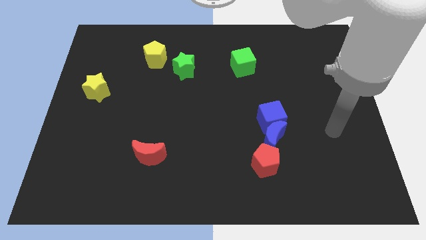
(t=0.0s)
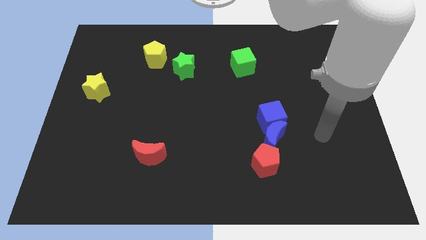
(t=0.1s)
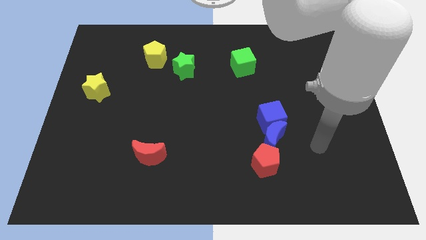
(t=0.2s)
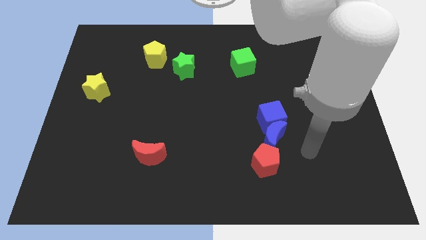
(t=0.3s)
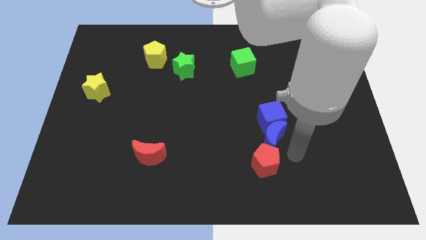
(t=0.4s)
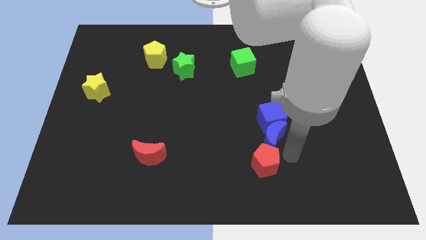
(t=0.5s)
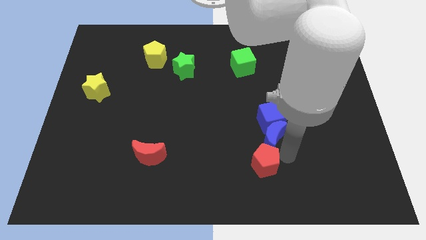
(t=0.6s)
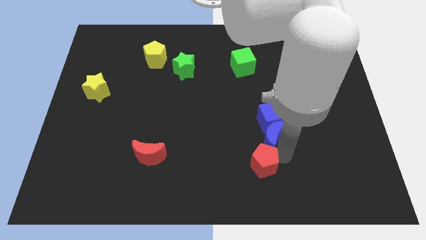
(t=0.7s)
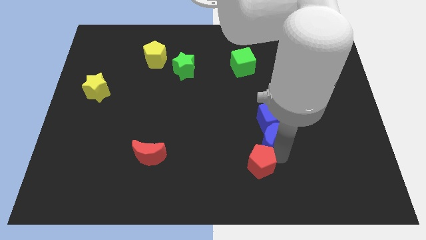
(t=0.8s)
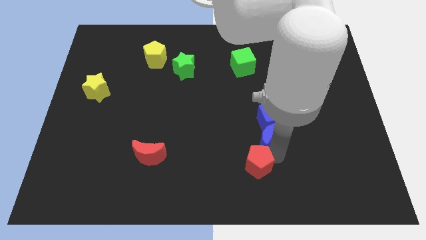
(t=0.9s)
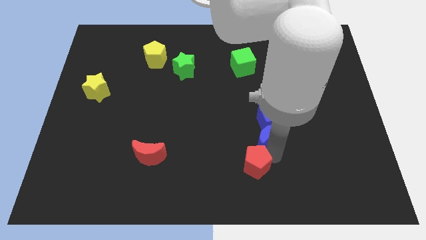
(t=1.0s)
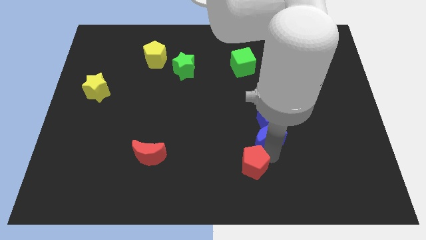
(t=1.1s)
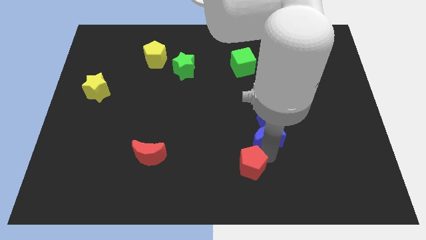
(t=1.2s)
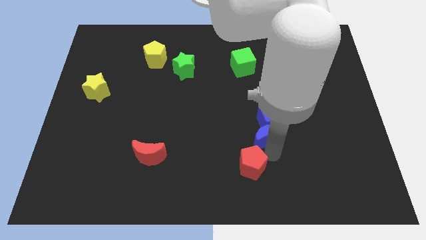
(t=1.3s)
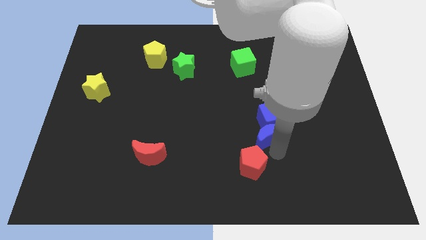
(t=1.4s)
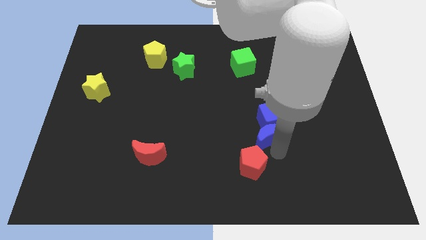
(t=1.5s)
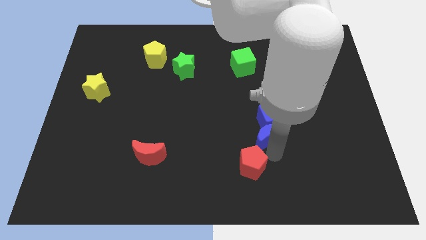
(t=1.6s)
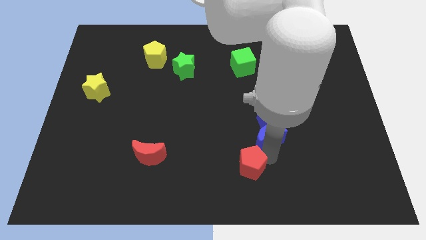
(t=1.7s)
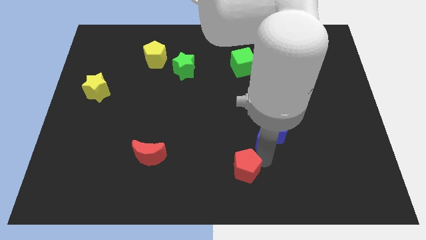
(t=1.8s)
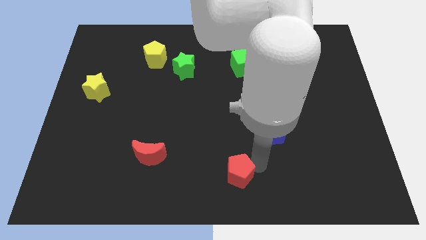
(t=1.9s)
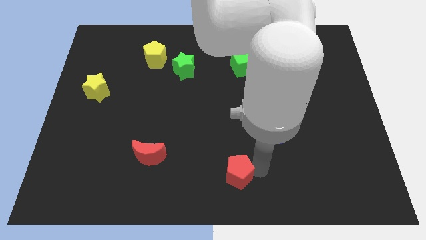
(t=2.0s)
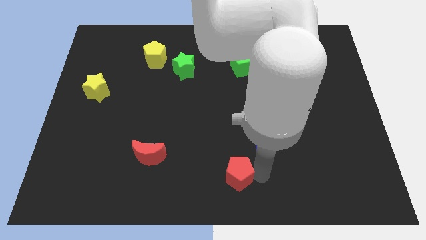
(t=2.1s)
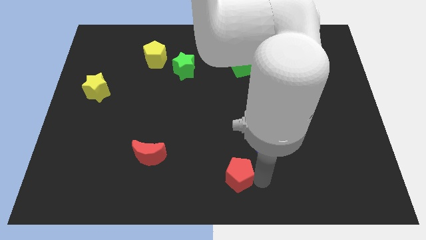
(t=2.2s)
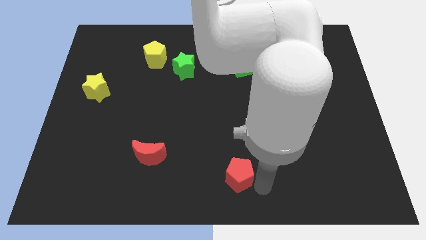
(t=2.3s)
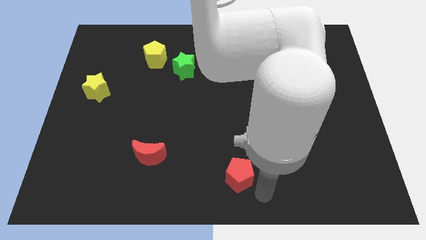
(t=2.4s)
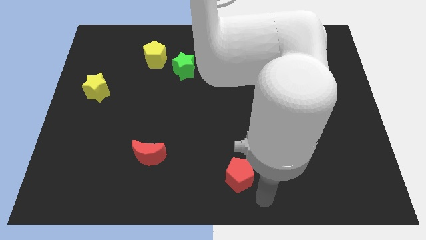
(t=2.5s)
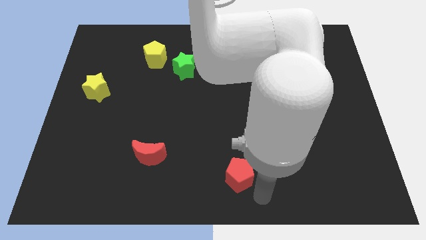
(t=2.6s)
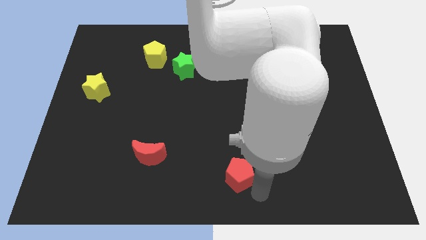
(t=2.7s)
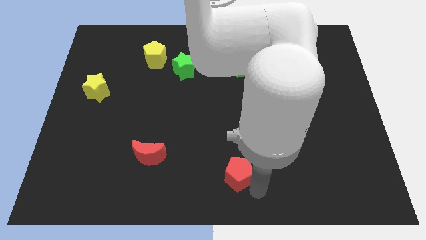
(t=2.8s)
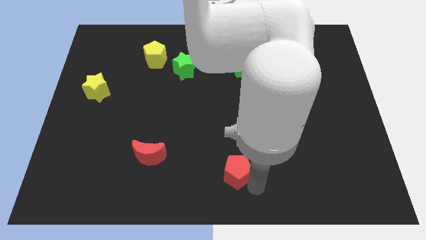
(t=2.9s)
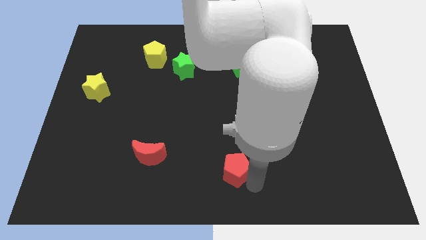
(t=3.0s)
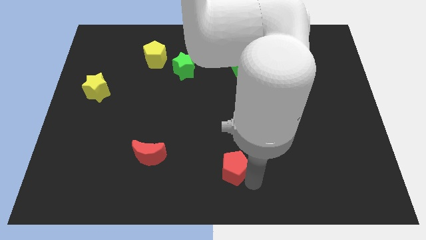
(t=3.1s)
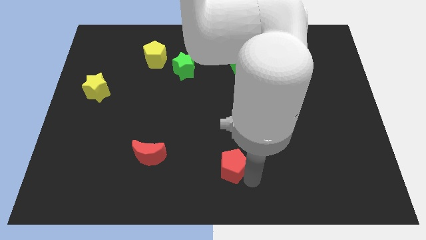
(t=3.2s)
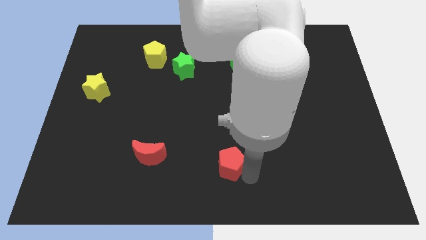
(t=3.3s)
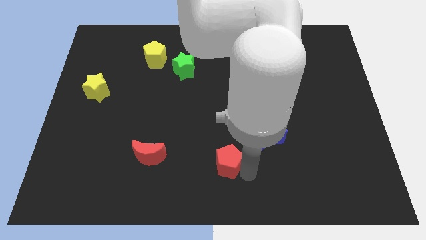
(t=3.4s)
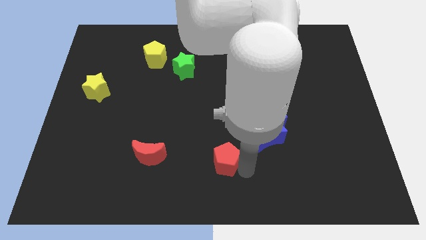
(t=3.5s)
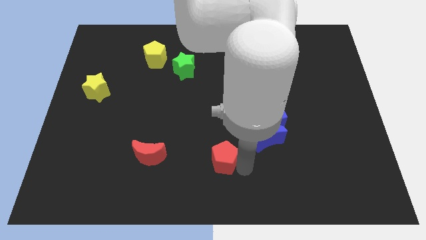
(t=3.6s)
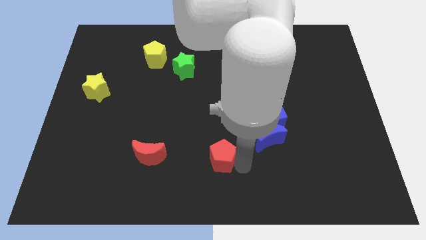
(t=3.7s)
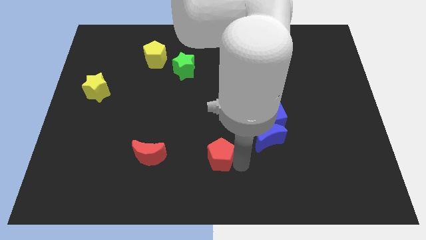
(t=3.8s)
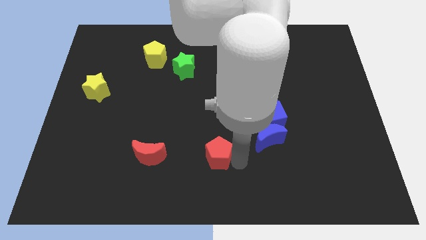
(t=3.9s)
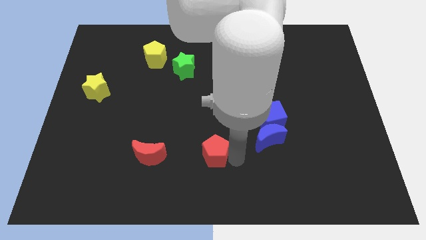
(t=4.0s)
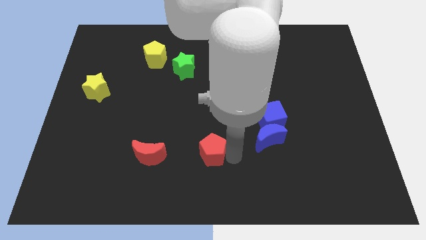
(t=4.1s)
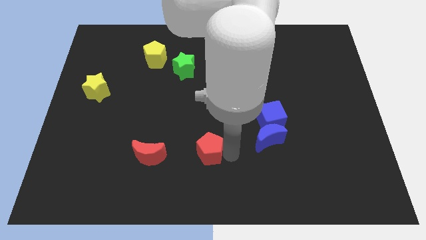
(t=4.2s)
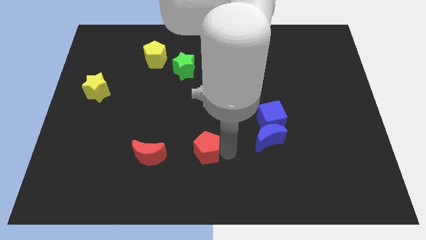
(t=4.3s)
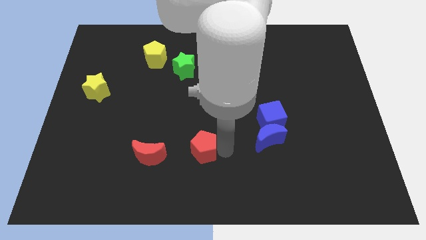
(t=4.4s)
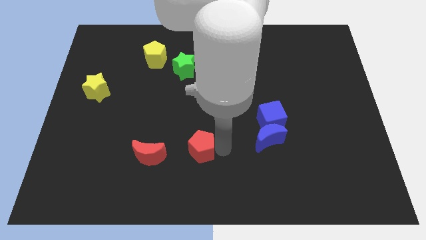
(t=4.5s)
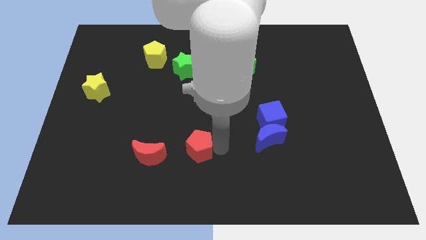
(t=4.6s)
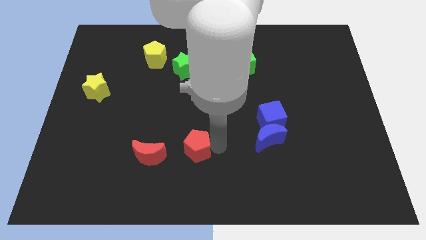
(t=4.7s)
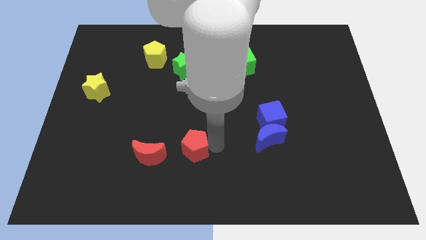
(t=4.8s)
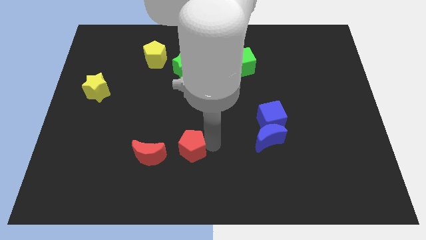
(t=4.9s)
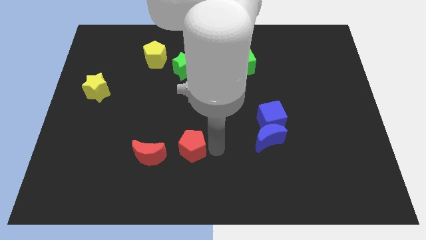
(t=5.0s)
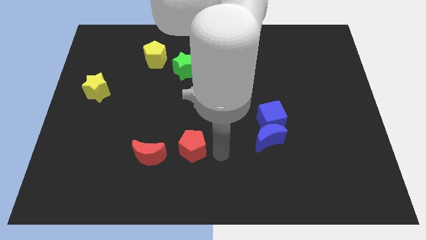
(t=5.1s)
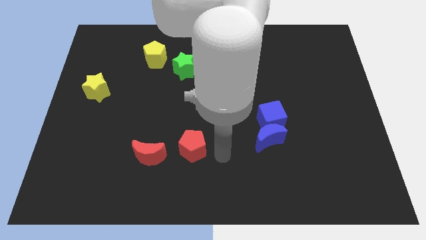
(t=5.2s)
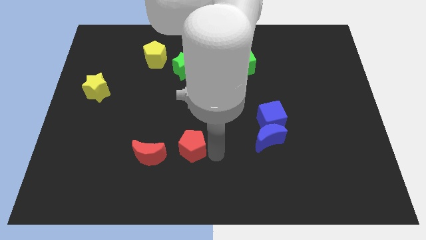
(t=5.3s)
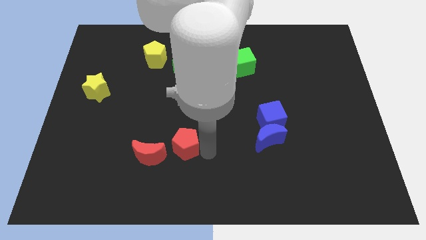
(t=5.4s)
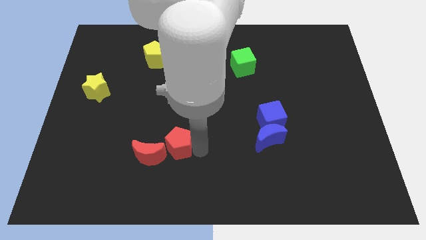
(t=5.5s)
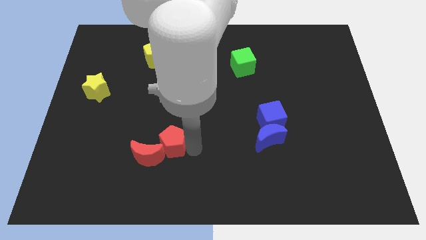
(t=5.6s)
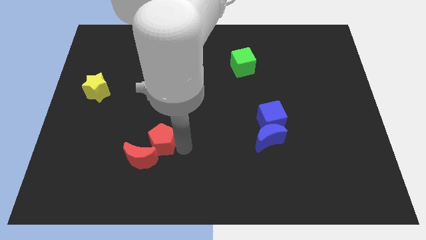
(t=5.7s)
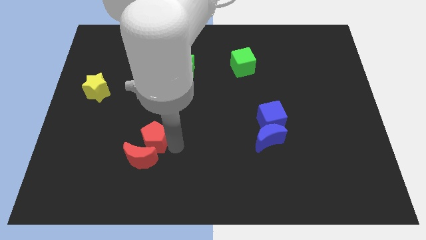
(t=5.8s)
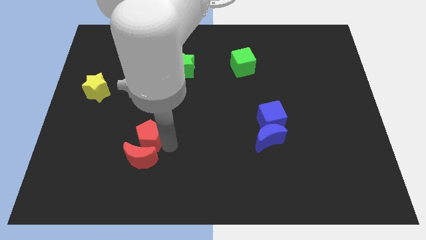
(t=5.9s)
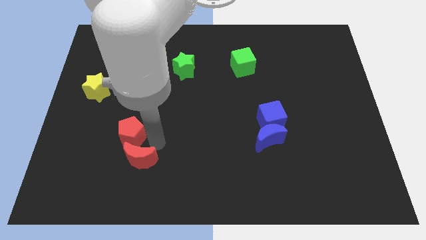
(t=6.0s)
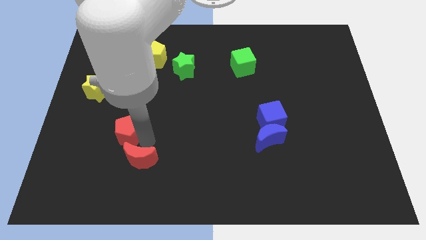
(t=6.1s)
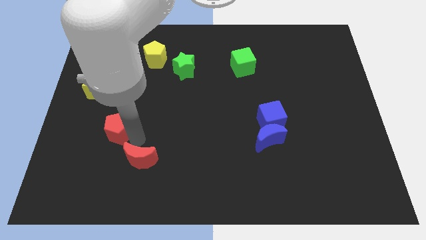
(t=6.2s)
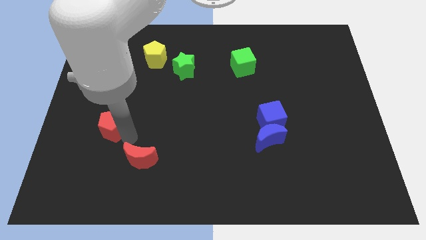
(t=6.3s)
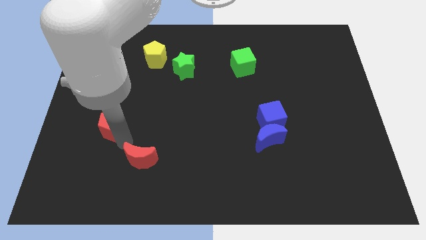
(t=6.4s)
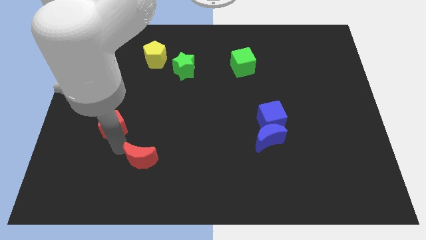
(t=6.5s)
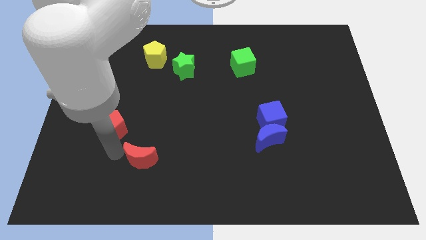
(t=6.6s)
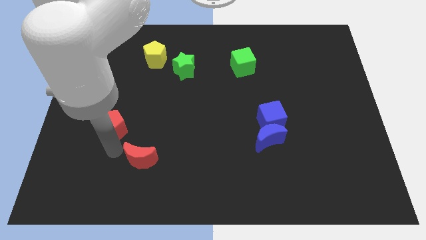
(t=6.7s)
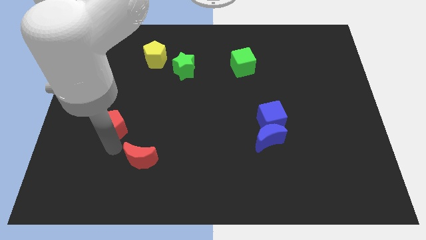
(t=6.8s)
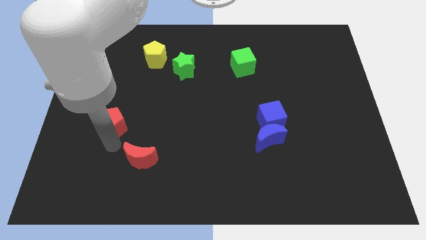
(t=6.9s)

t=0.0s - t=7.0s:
slide the red pentagon to the bottom right side of the yellow star

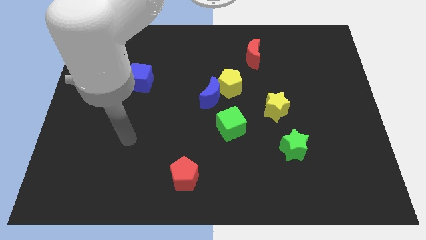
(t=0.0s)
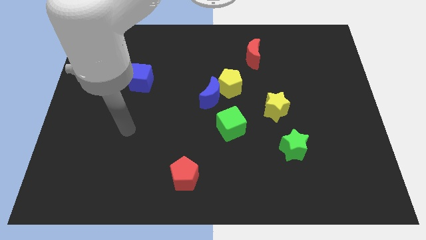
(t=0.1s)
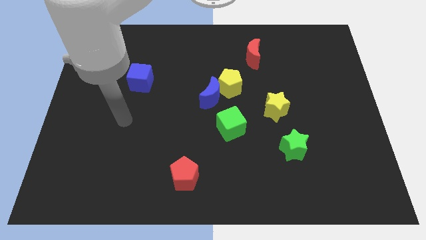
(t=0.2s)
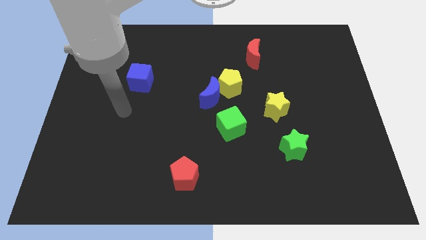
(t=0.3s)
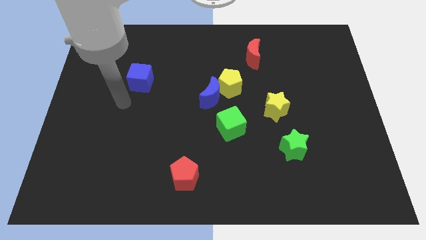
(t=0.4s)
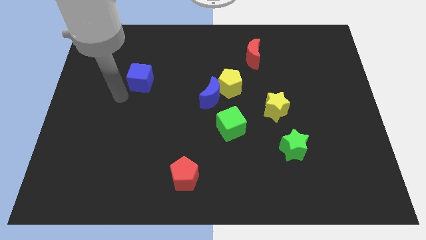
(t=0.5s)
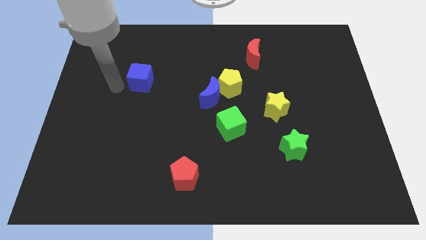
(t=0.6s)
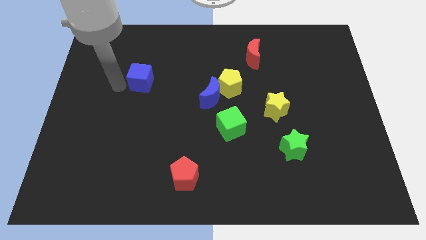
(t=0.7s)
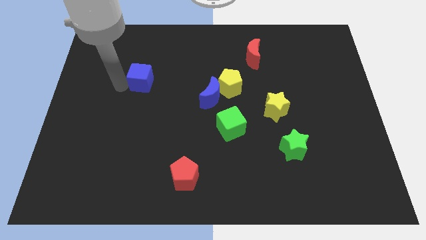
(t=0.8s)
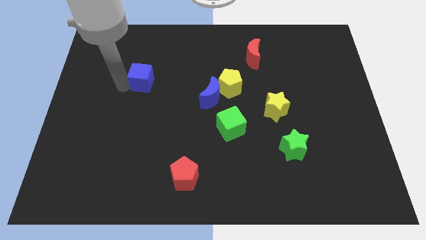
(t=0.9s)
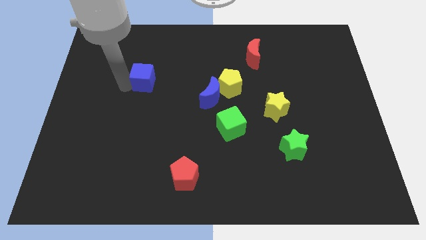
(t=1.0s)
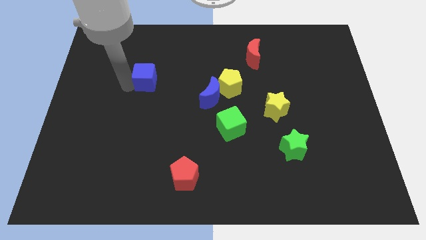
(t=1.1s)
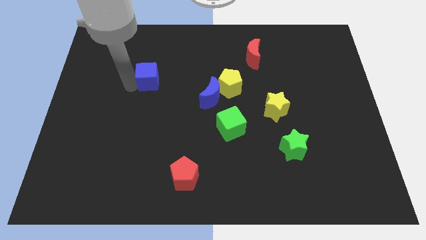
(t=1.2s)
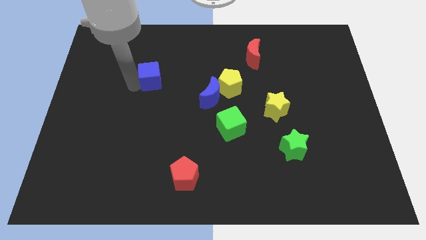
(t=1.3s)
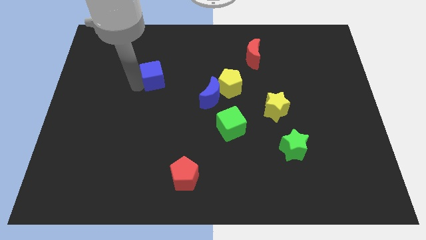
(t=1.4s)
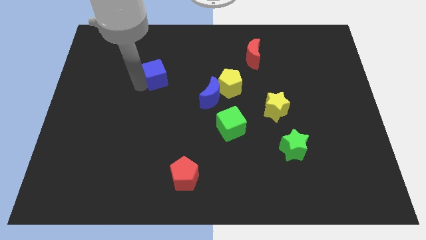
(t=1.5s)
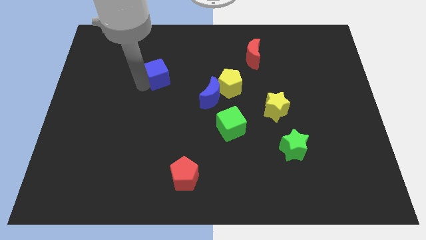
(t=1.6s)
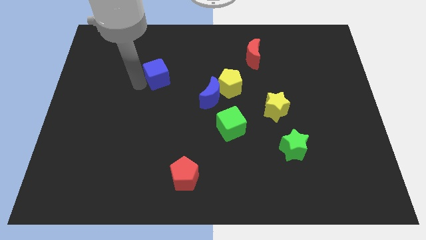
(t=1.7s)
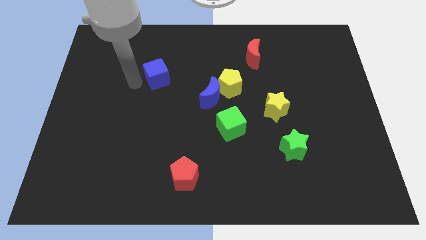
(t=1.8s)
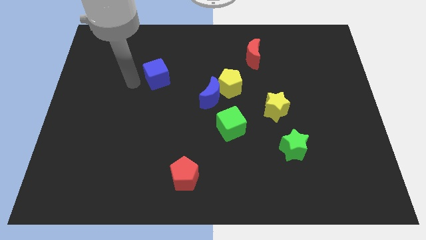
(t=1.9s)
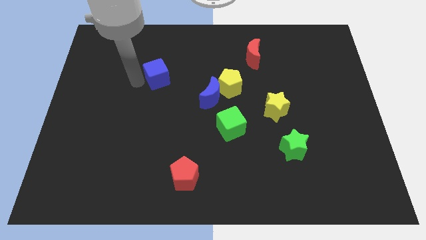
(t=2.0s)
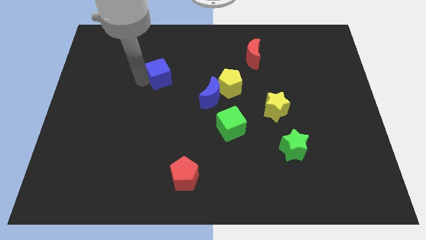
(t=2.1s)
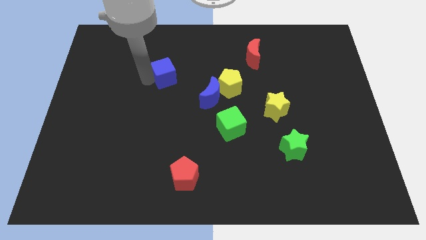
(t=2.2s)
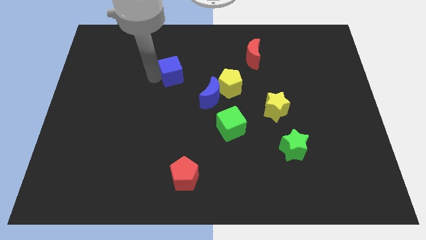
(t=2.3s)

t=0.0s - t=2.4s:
push the blue cube diagonally up and to the left of the blue moon
